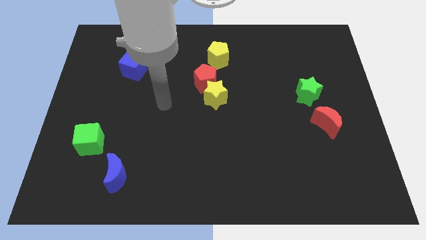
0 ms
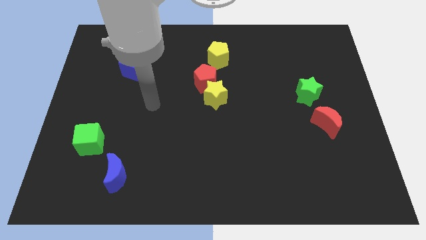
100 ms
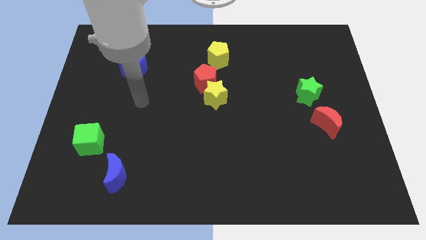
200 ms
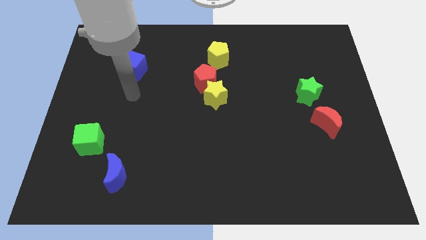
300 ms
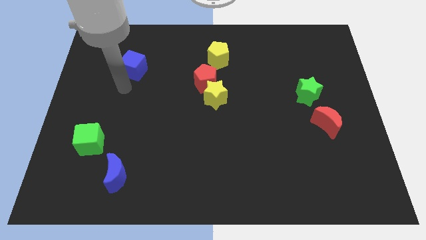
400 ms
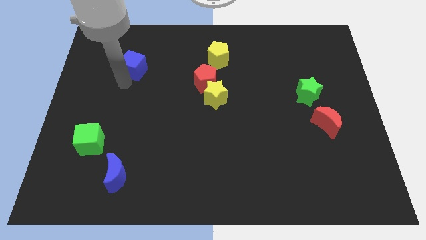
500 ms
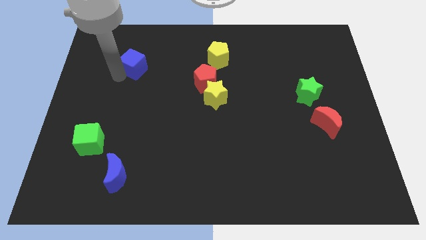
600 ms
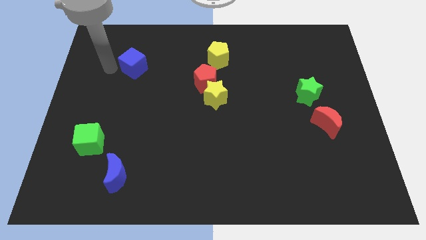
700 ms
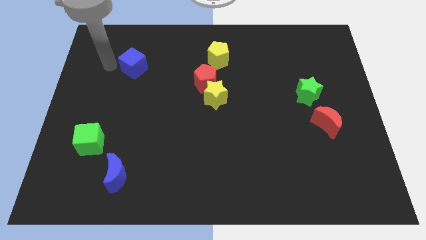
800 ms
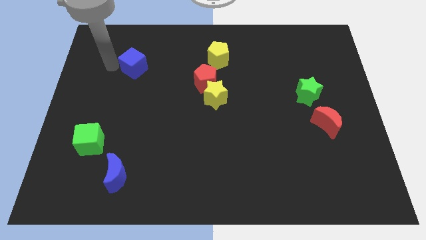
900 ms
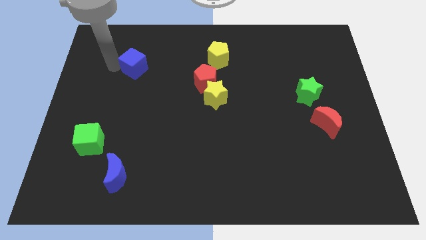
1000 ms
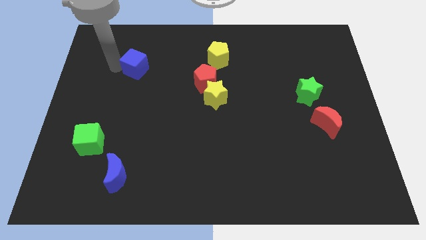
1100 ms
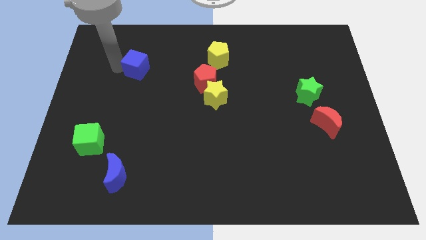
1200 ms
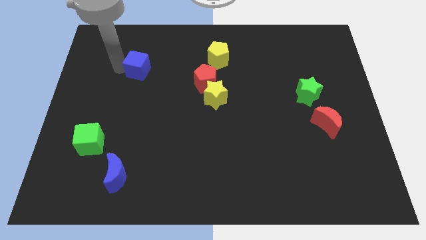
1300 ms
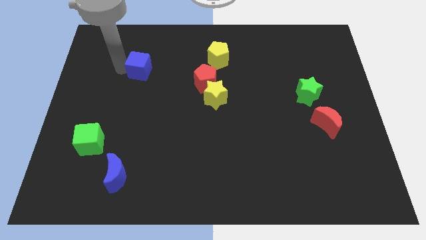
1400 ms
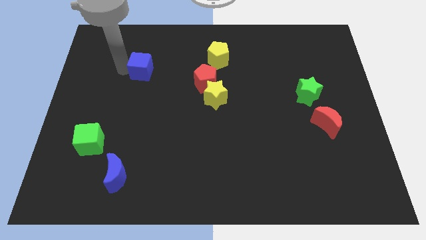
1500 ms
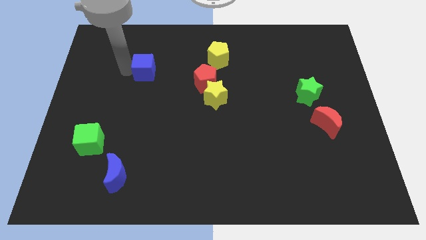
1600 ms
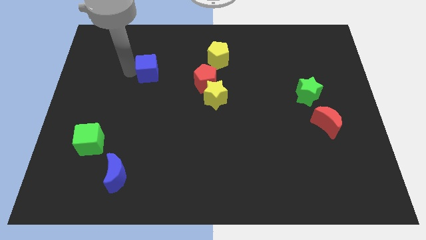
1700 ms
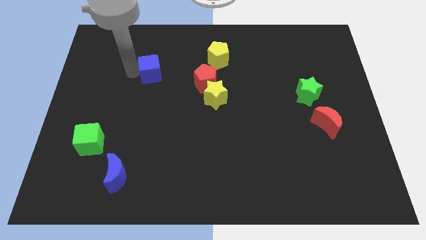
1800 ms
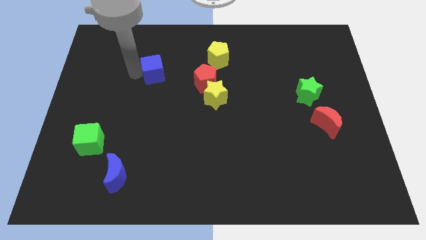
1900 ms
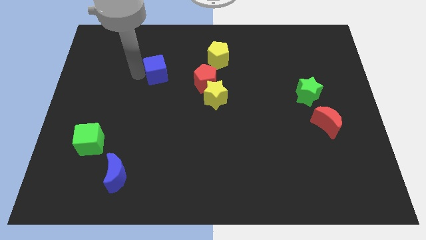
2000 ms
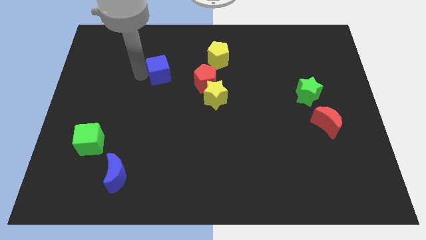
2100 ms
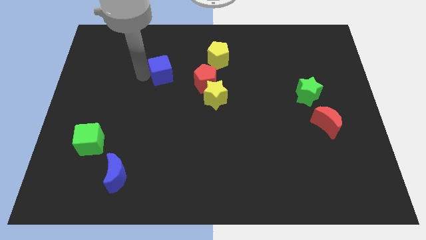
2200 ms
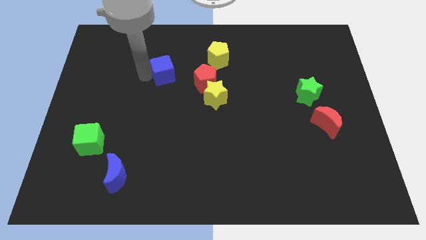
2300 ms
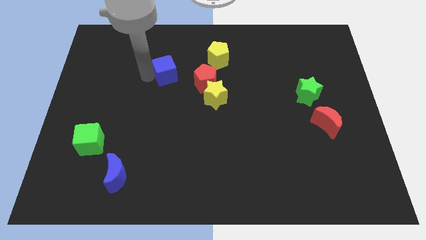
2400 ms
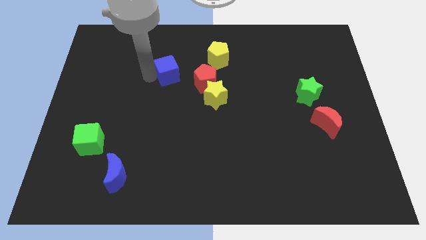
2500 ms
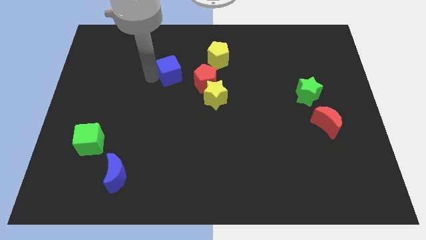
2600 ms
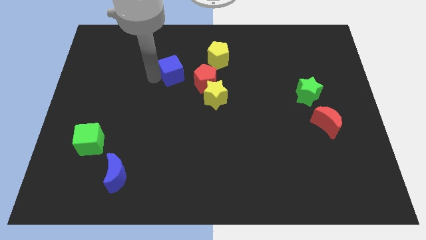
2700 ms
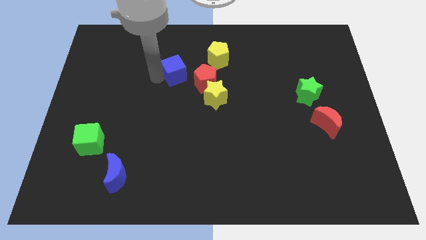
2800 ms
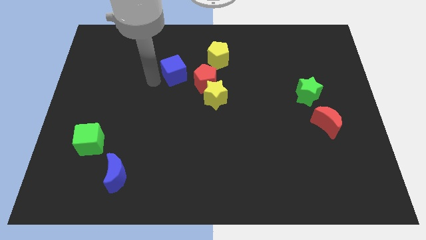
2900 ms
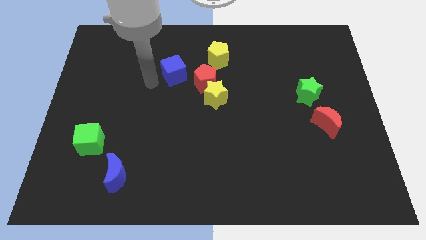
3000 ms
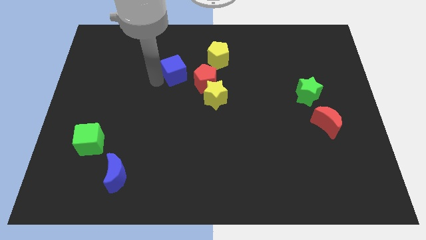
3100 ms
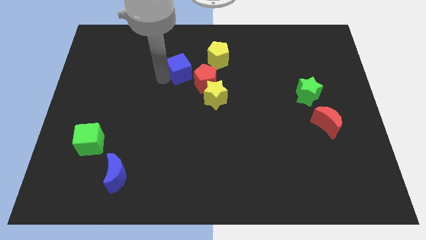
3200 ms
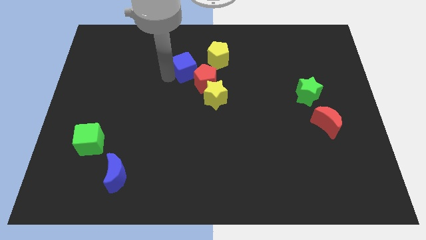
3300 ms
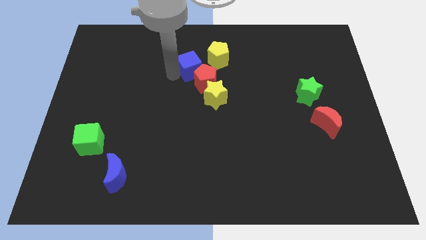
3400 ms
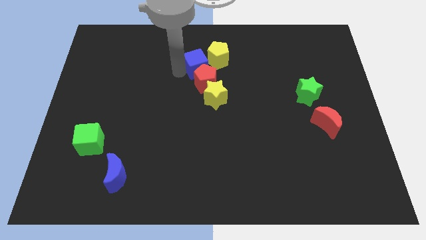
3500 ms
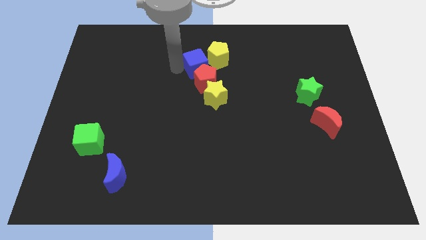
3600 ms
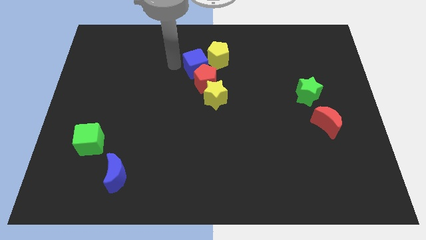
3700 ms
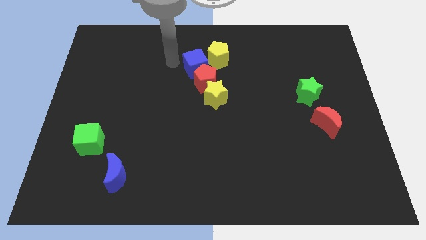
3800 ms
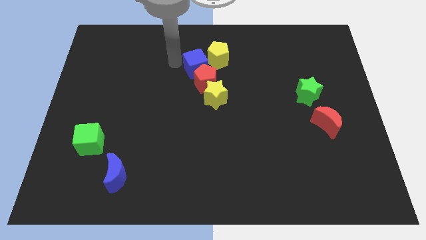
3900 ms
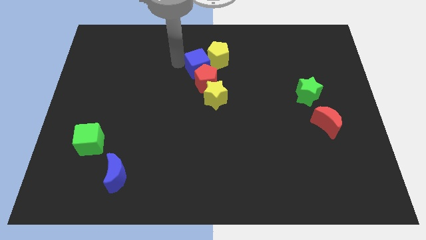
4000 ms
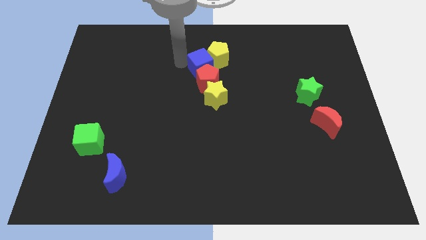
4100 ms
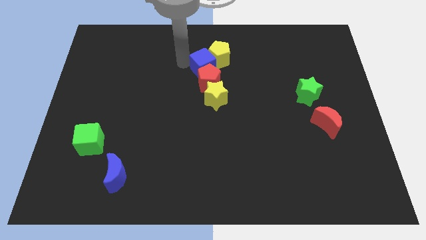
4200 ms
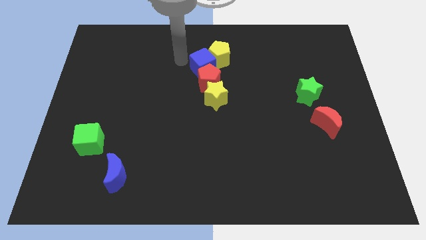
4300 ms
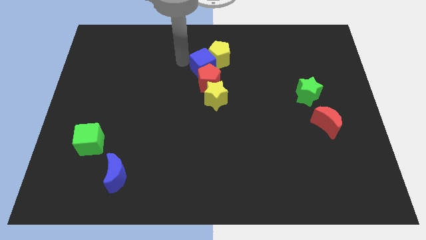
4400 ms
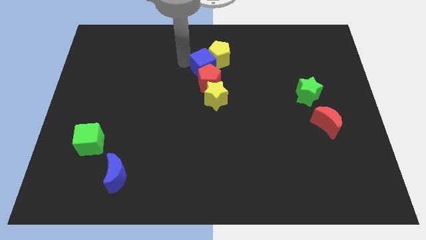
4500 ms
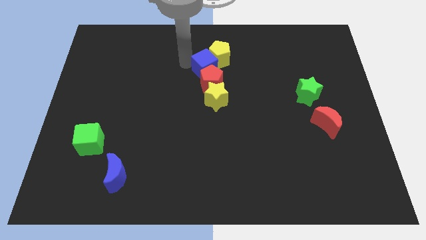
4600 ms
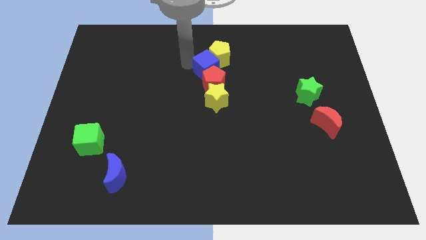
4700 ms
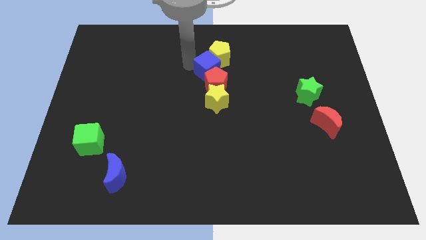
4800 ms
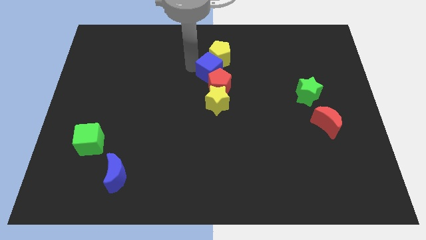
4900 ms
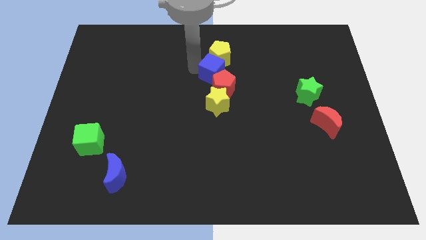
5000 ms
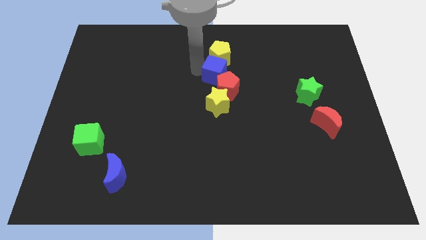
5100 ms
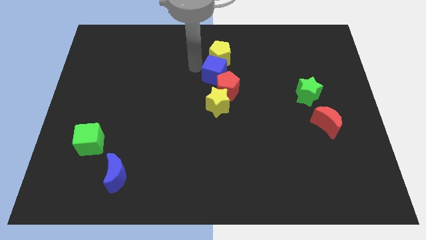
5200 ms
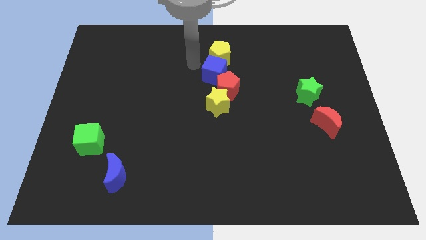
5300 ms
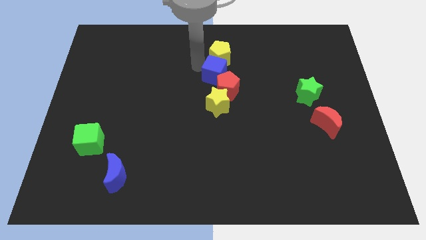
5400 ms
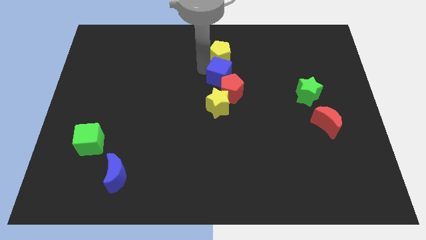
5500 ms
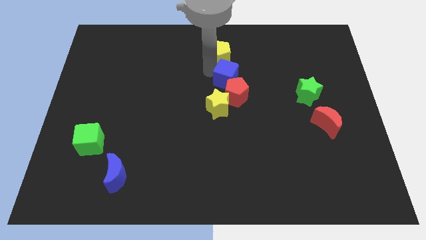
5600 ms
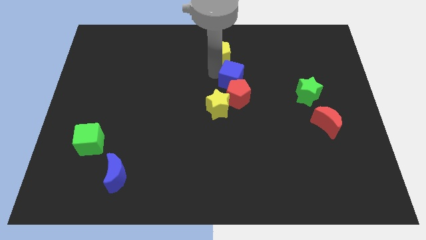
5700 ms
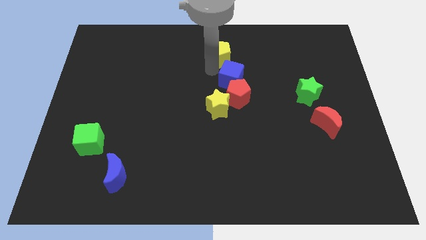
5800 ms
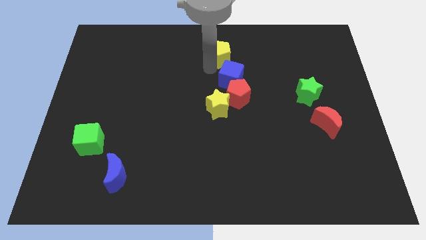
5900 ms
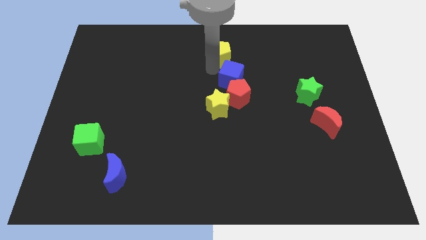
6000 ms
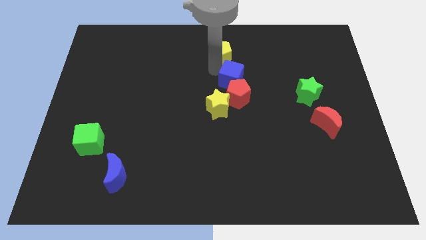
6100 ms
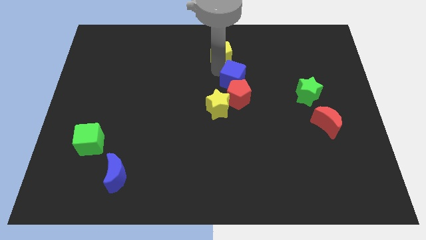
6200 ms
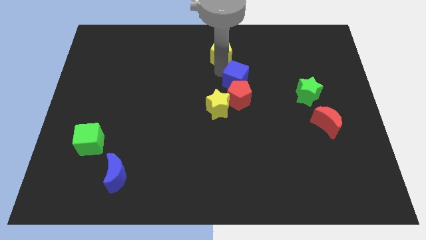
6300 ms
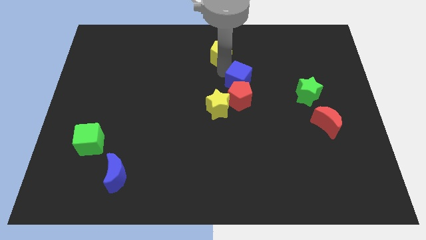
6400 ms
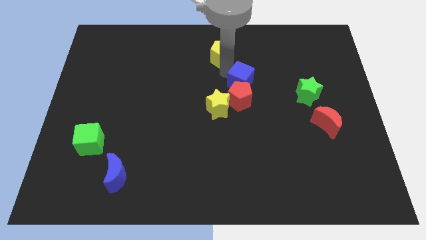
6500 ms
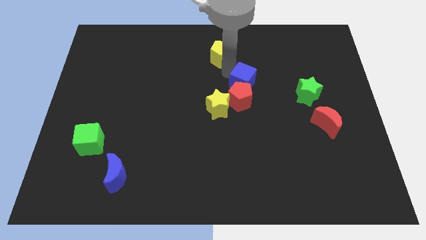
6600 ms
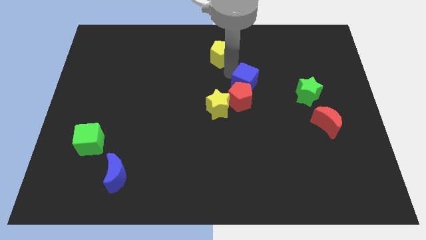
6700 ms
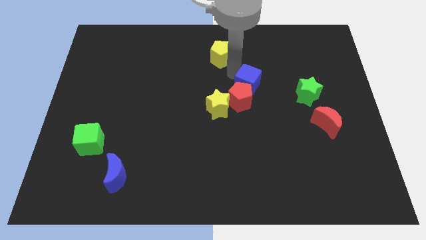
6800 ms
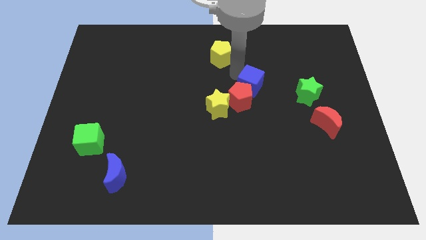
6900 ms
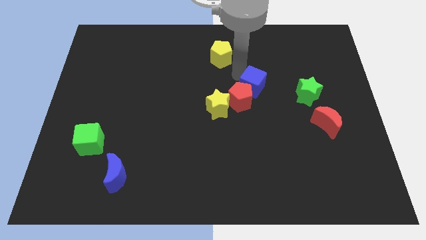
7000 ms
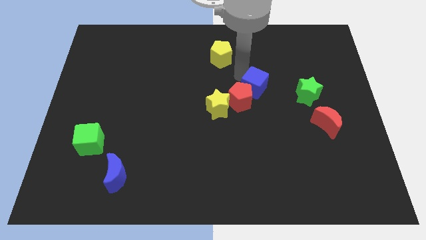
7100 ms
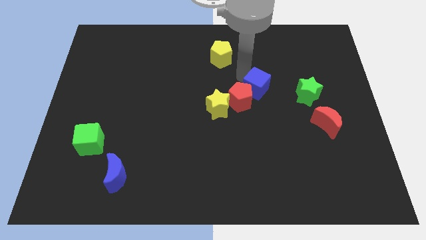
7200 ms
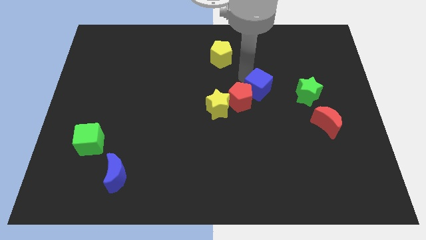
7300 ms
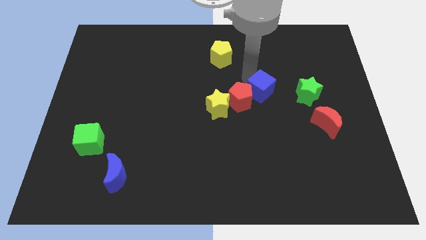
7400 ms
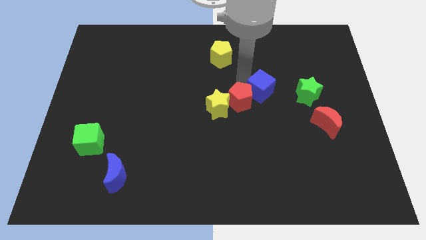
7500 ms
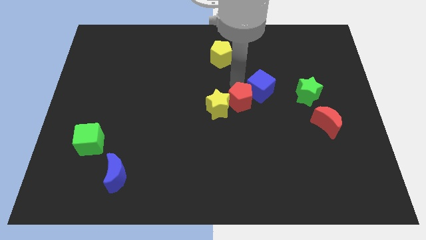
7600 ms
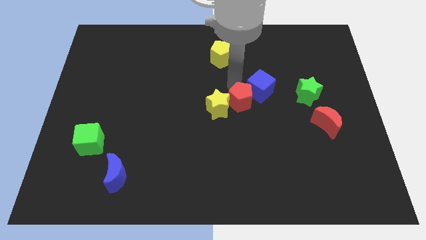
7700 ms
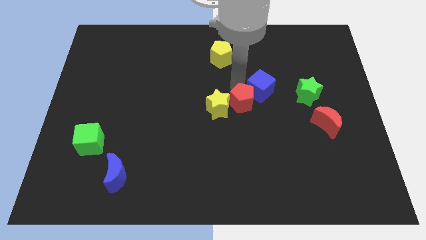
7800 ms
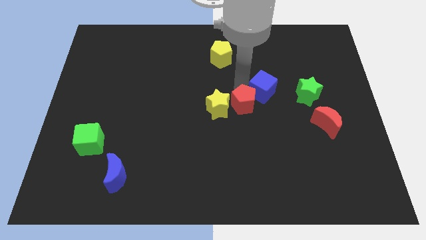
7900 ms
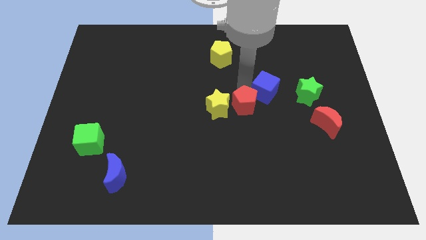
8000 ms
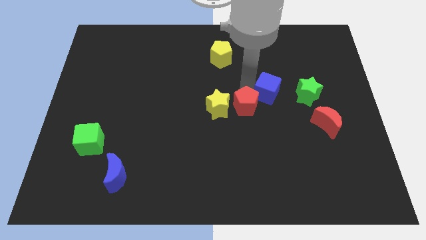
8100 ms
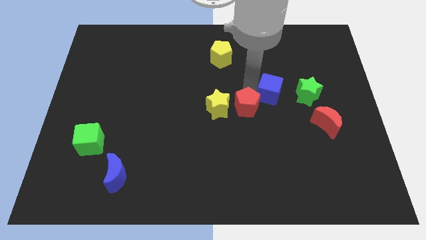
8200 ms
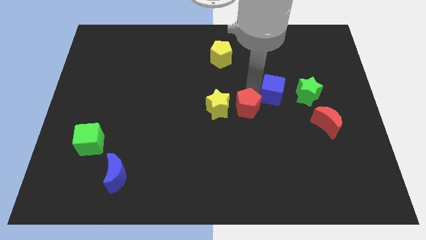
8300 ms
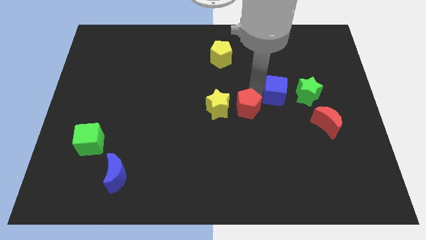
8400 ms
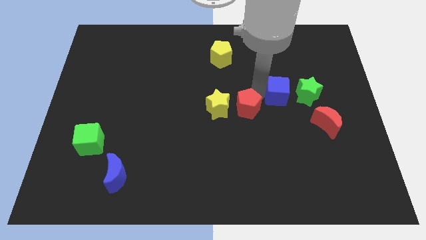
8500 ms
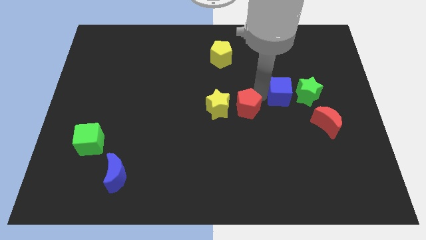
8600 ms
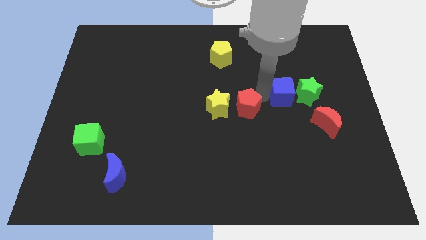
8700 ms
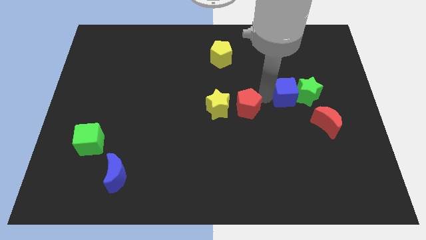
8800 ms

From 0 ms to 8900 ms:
slide the blue cube next to the green star
